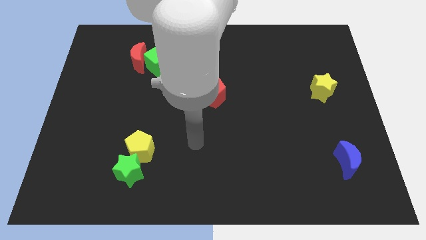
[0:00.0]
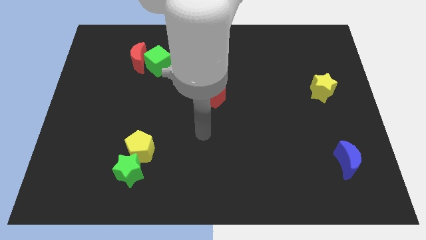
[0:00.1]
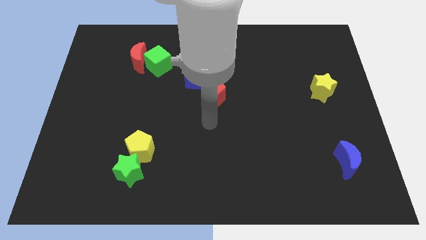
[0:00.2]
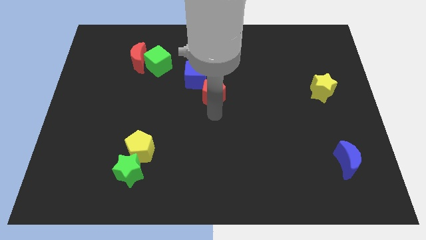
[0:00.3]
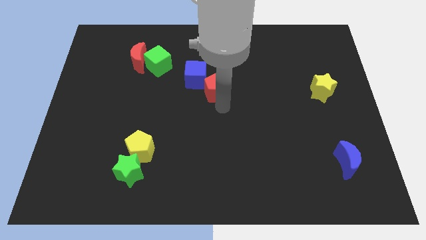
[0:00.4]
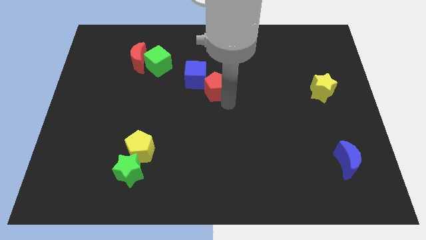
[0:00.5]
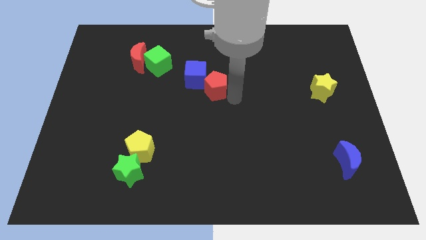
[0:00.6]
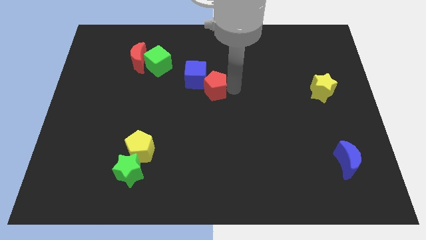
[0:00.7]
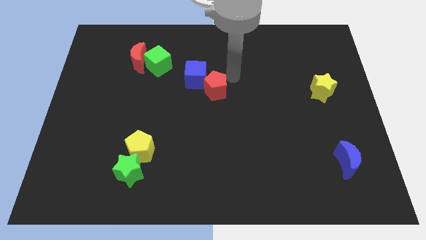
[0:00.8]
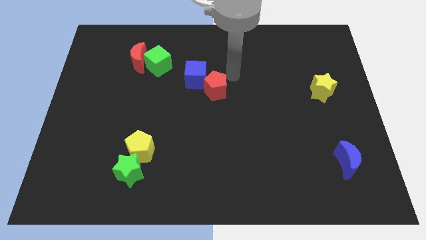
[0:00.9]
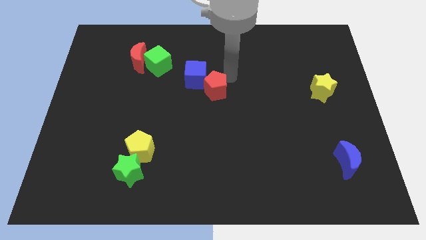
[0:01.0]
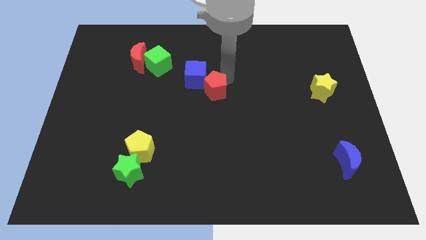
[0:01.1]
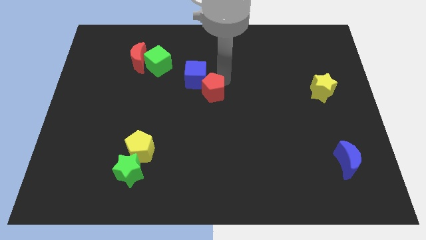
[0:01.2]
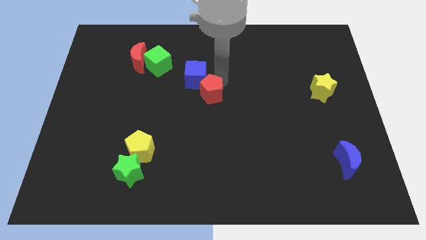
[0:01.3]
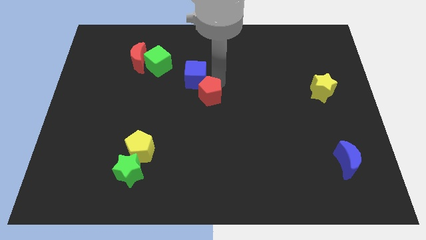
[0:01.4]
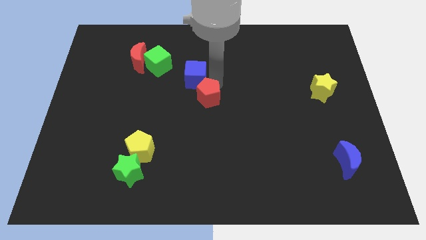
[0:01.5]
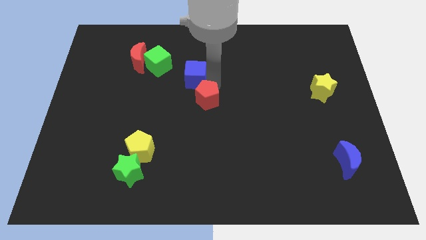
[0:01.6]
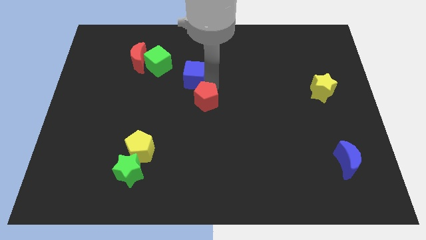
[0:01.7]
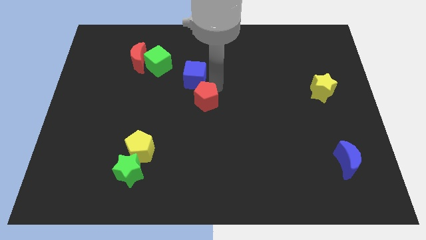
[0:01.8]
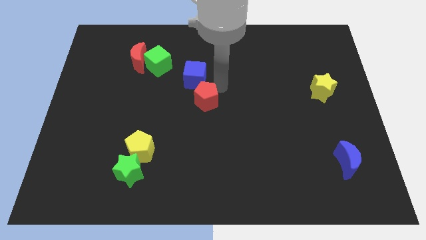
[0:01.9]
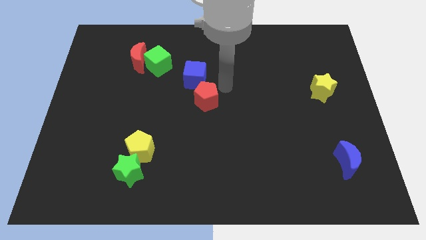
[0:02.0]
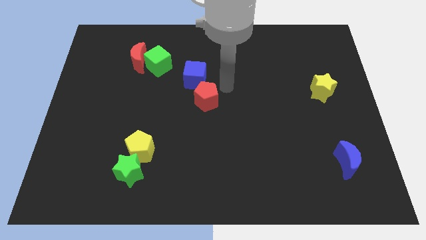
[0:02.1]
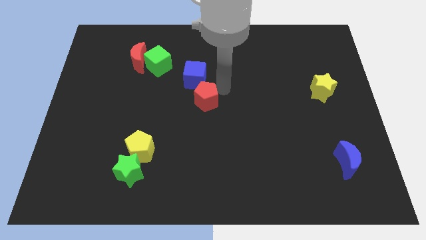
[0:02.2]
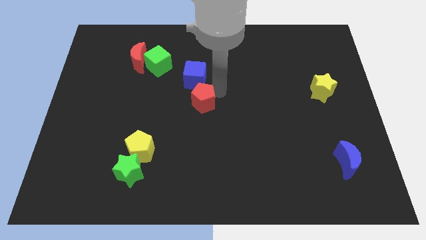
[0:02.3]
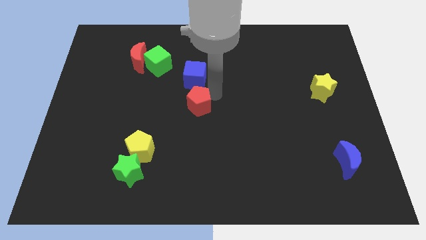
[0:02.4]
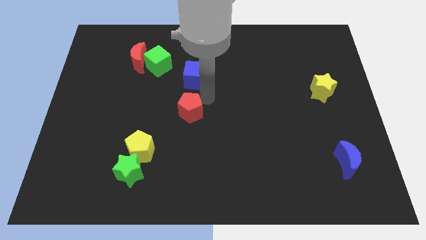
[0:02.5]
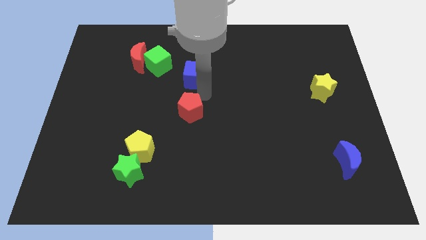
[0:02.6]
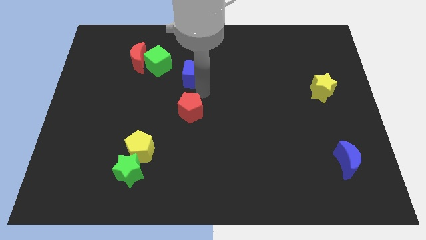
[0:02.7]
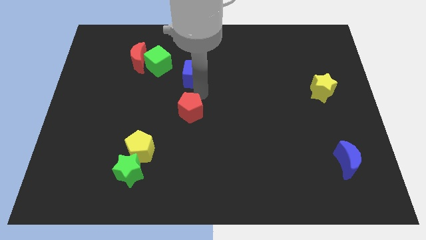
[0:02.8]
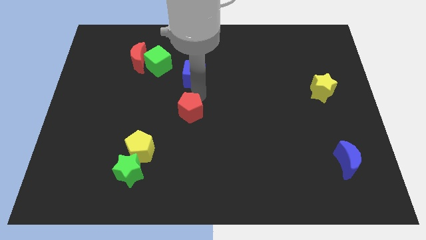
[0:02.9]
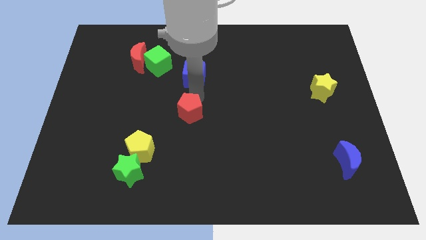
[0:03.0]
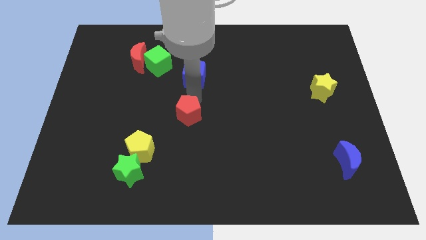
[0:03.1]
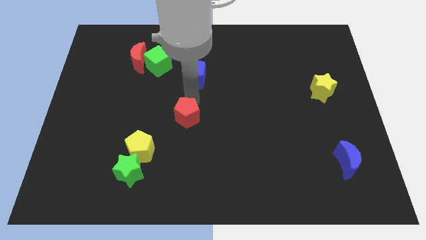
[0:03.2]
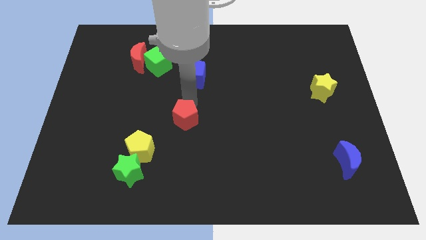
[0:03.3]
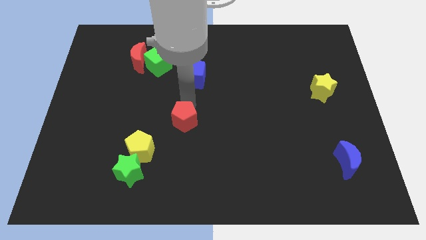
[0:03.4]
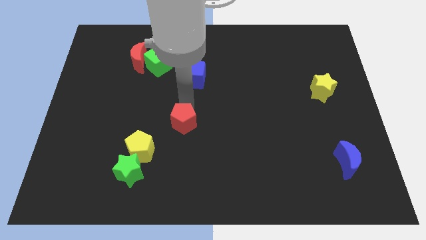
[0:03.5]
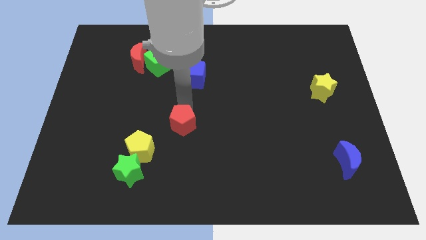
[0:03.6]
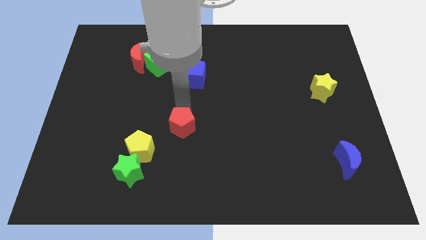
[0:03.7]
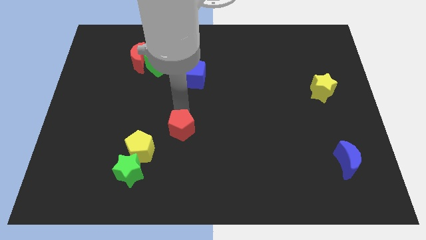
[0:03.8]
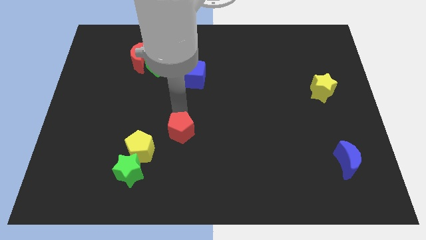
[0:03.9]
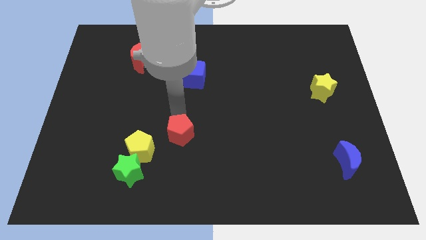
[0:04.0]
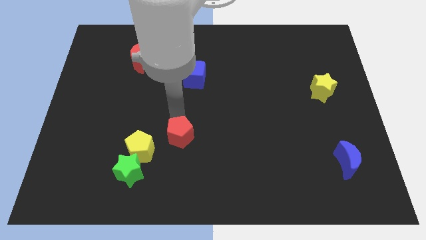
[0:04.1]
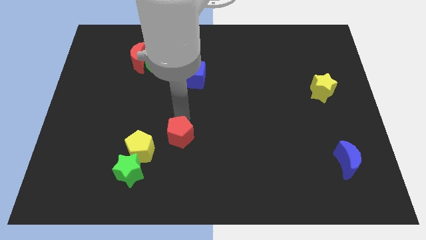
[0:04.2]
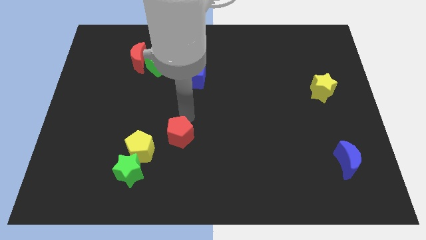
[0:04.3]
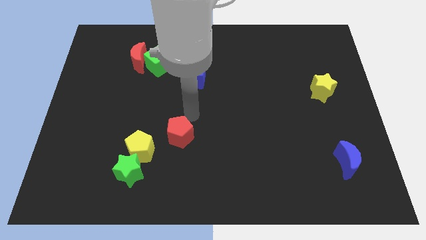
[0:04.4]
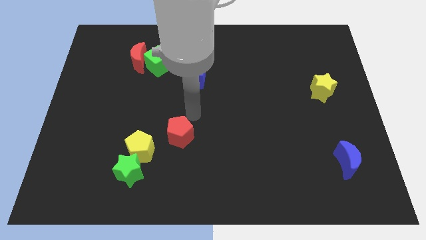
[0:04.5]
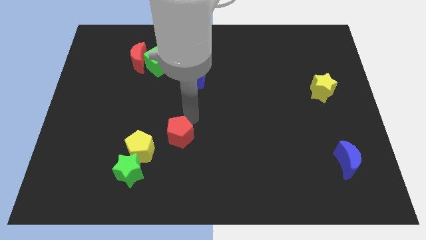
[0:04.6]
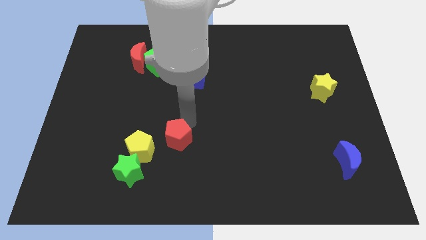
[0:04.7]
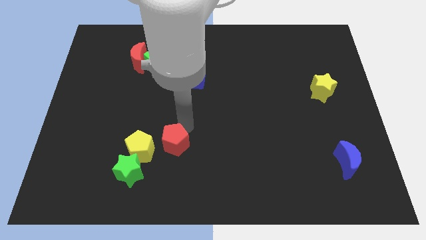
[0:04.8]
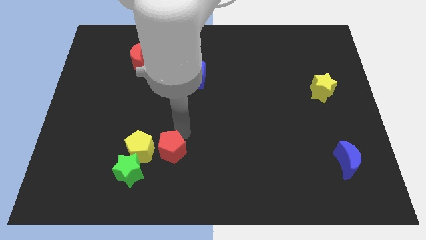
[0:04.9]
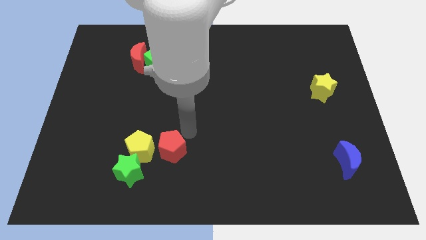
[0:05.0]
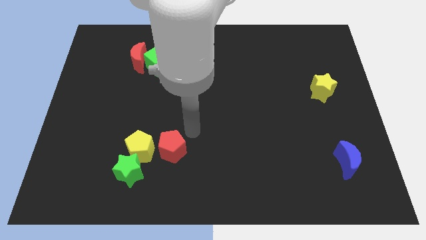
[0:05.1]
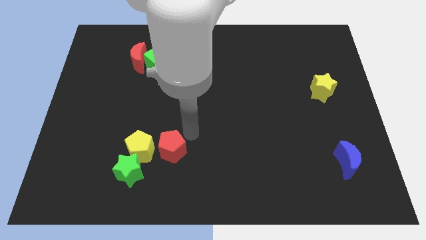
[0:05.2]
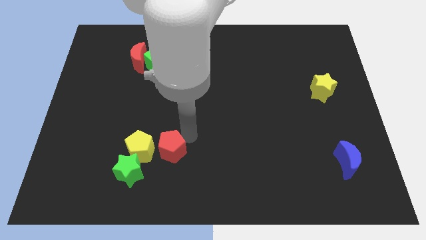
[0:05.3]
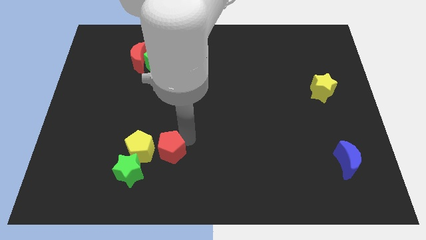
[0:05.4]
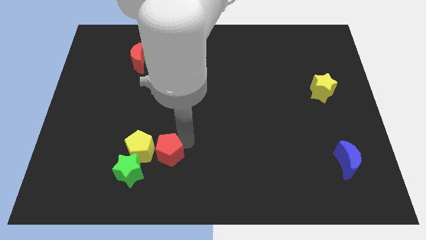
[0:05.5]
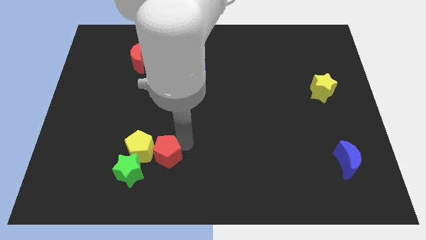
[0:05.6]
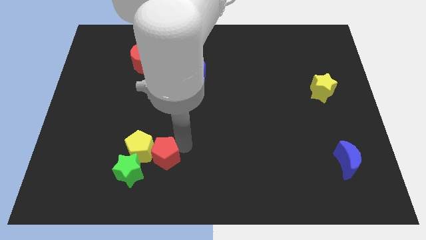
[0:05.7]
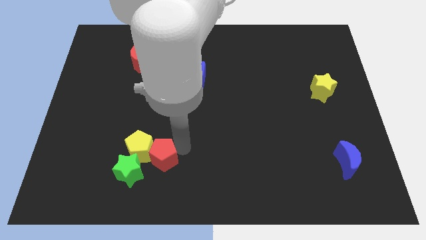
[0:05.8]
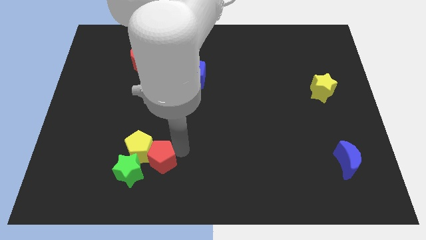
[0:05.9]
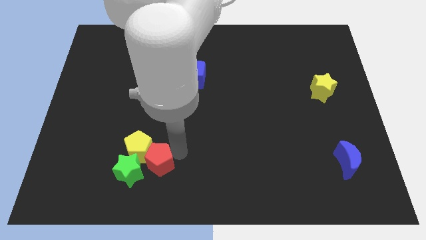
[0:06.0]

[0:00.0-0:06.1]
move the red pentagon next to the green star

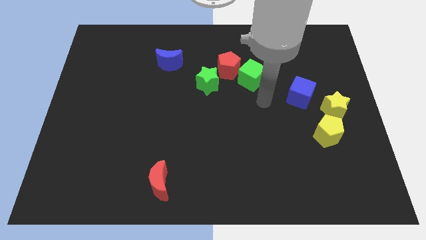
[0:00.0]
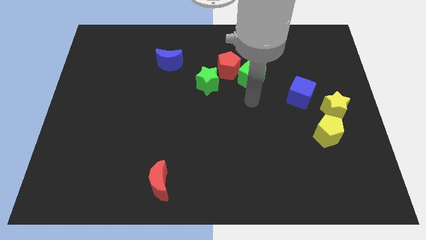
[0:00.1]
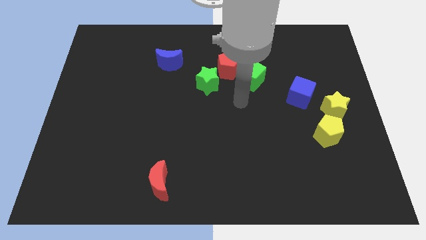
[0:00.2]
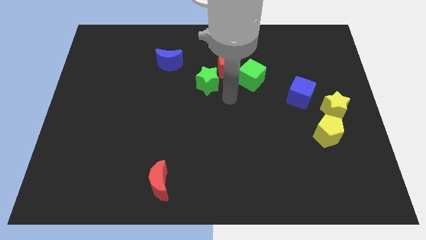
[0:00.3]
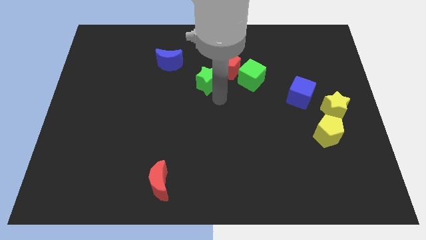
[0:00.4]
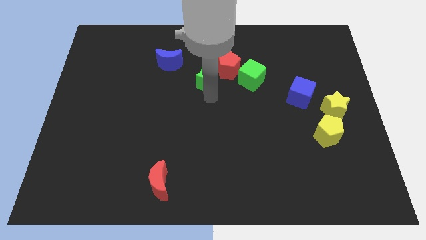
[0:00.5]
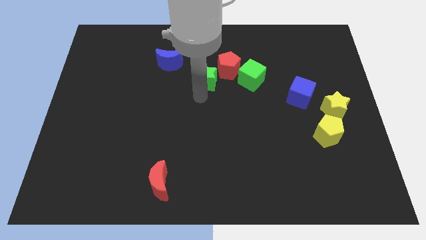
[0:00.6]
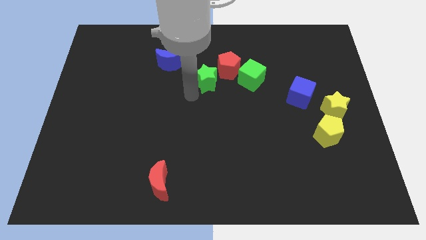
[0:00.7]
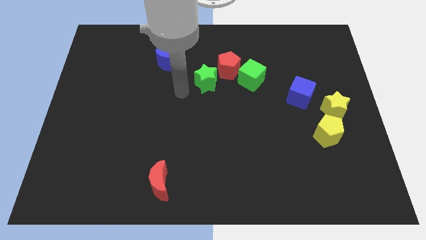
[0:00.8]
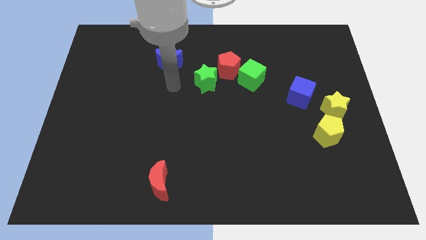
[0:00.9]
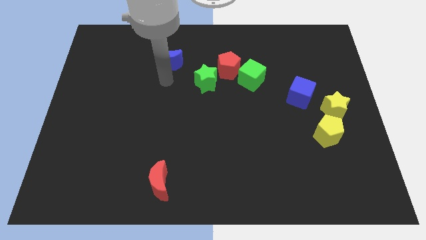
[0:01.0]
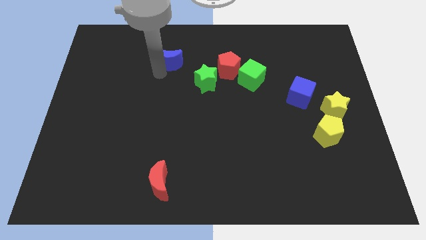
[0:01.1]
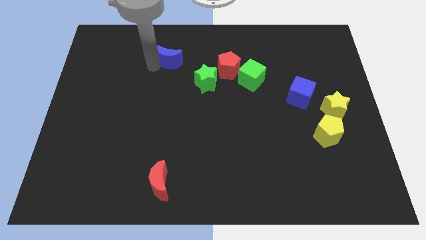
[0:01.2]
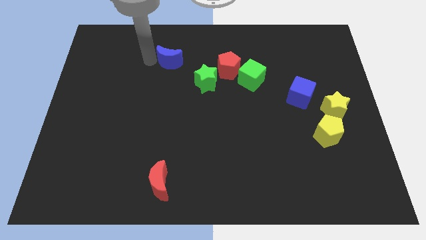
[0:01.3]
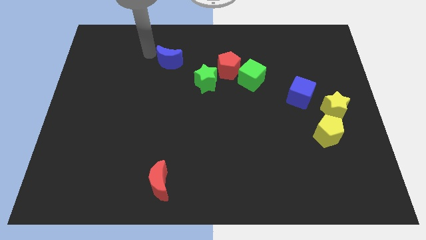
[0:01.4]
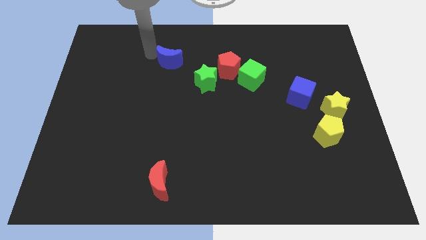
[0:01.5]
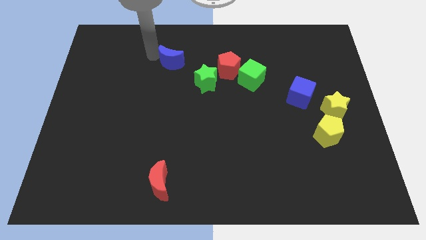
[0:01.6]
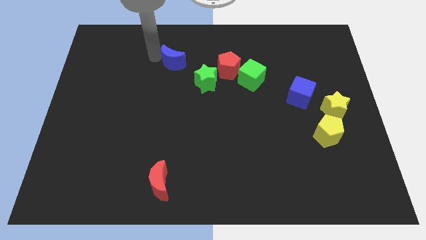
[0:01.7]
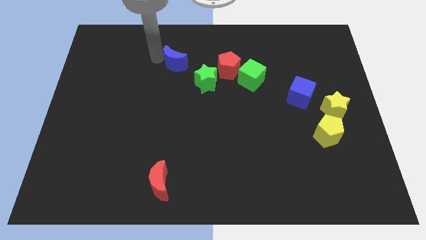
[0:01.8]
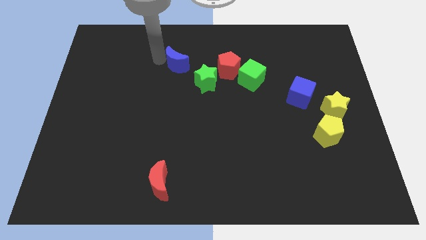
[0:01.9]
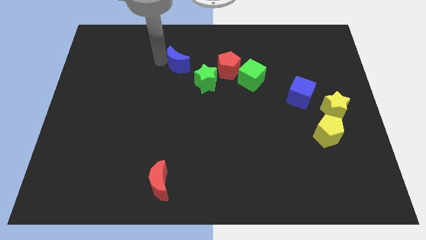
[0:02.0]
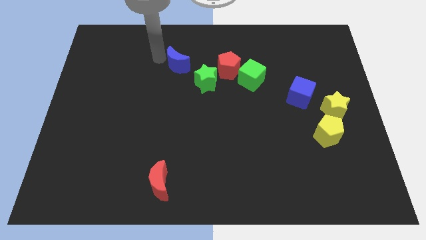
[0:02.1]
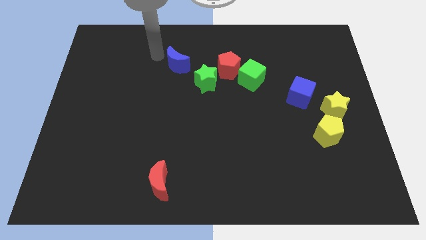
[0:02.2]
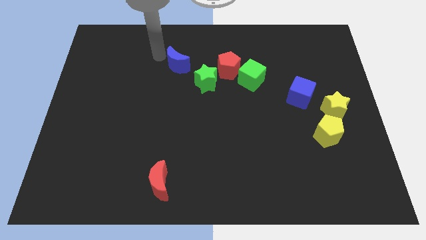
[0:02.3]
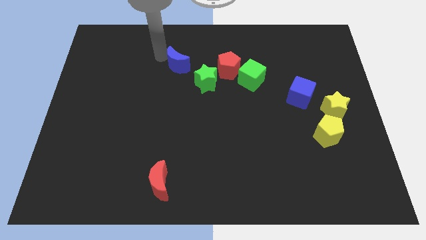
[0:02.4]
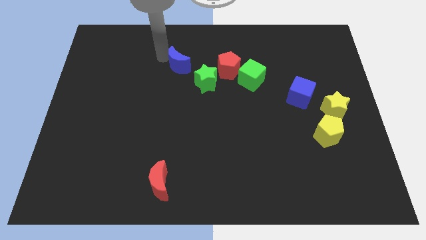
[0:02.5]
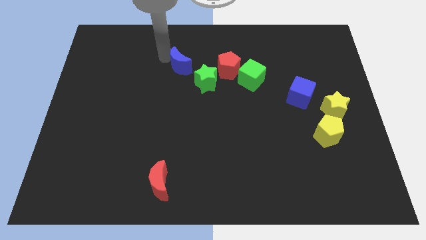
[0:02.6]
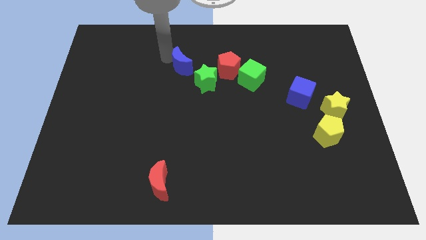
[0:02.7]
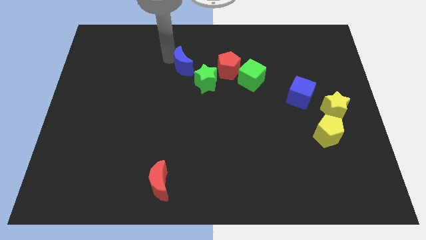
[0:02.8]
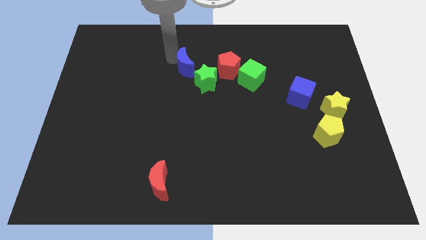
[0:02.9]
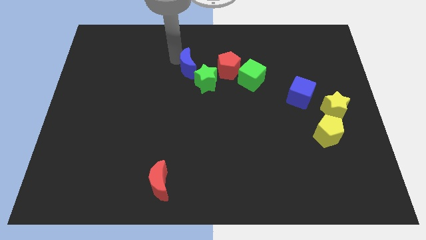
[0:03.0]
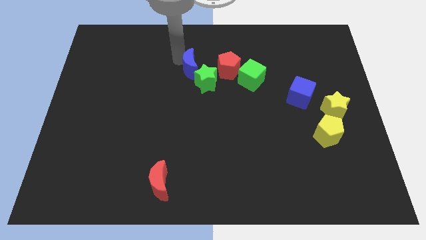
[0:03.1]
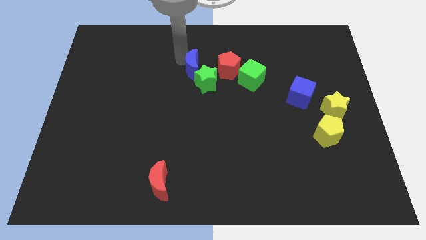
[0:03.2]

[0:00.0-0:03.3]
put the blue moon next to the green star
